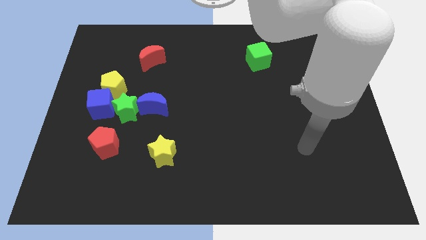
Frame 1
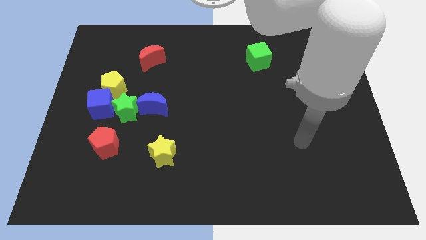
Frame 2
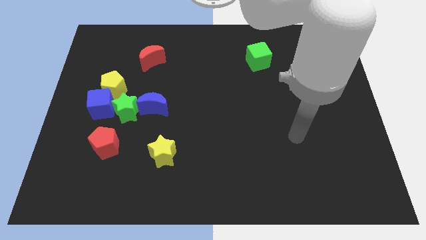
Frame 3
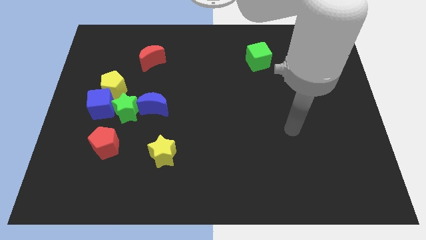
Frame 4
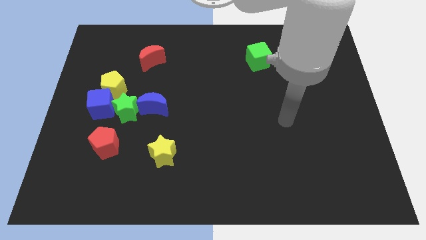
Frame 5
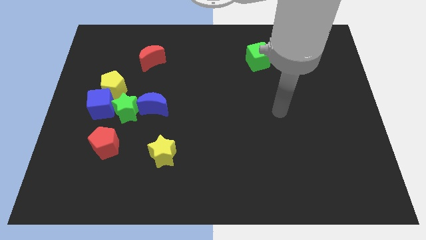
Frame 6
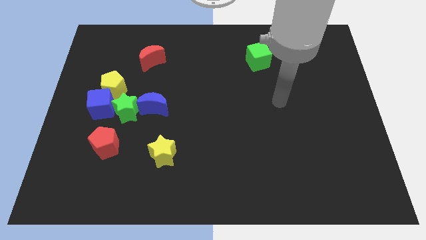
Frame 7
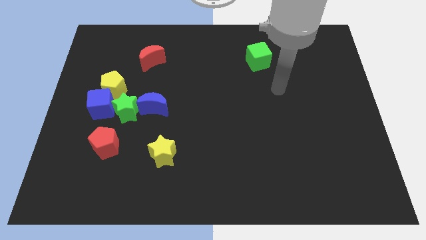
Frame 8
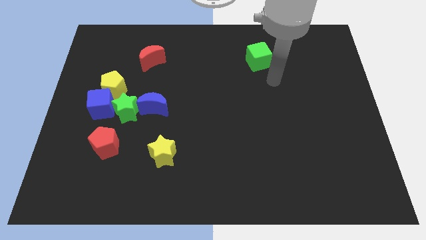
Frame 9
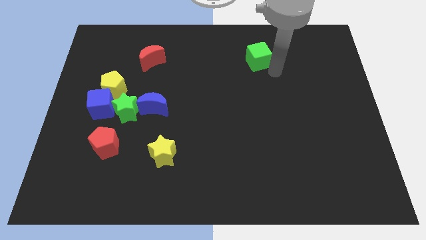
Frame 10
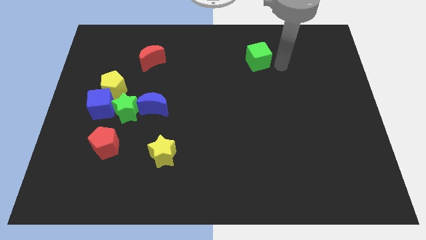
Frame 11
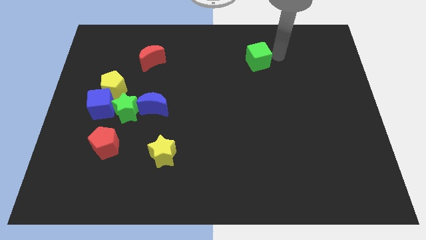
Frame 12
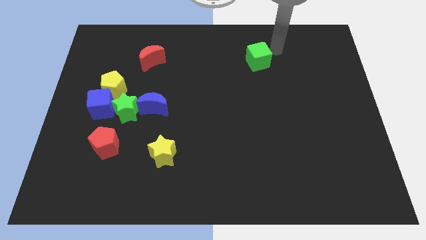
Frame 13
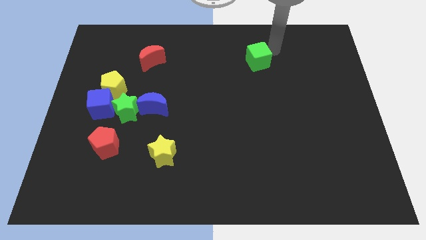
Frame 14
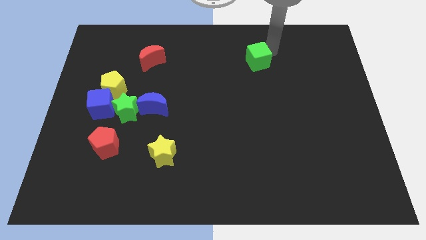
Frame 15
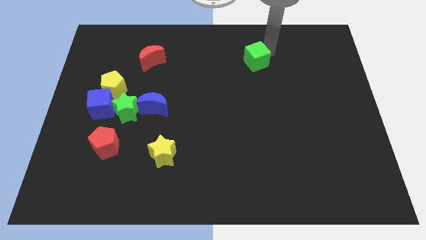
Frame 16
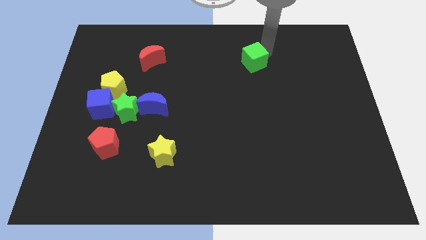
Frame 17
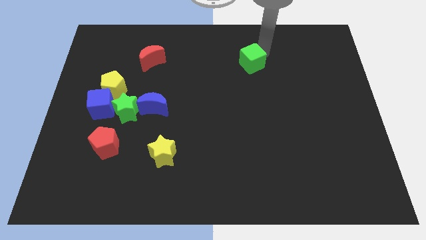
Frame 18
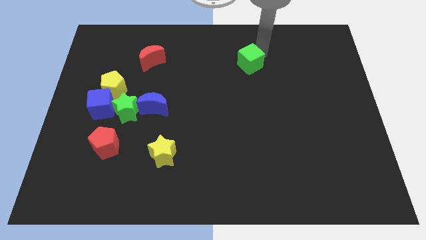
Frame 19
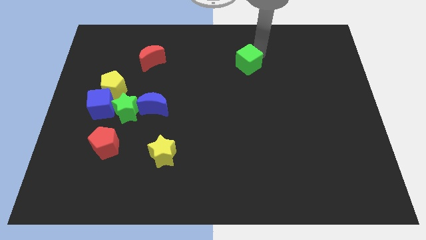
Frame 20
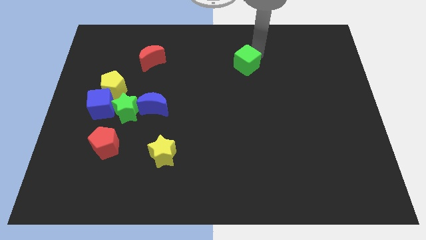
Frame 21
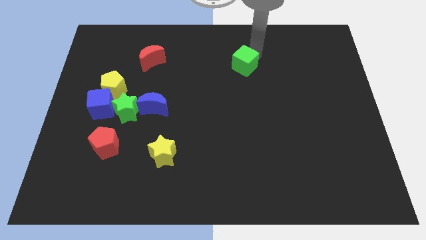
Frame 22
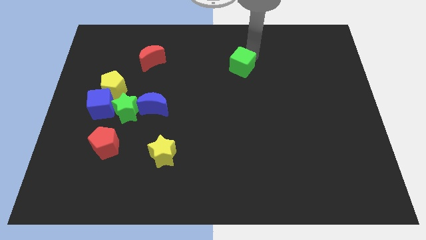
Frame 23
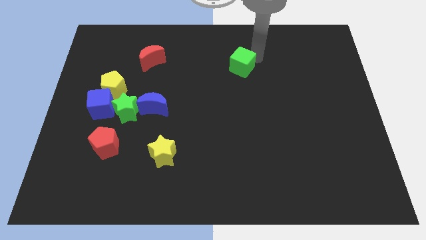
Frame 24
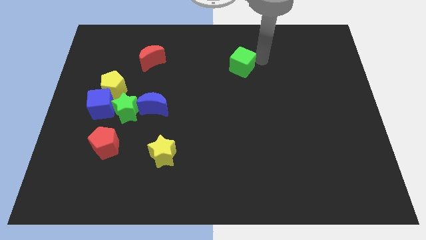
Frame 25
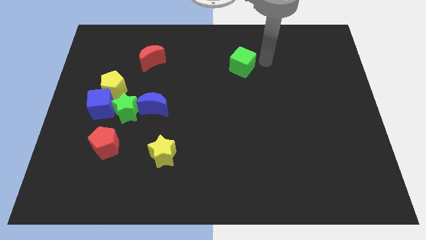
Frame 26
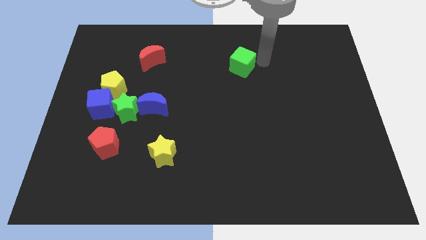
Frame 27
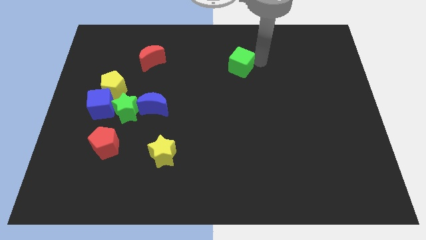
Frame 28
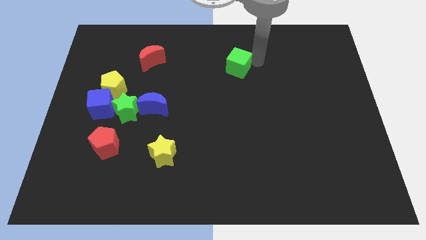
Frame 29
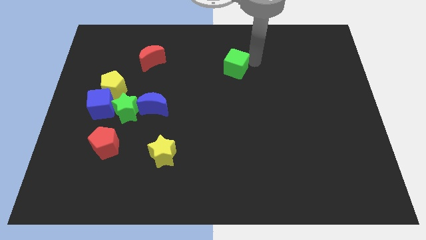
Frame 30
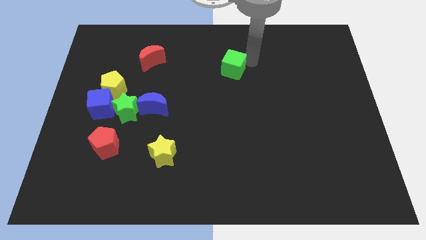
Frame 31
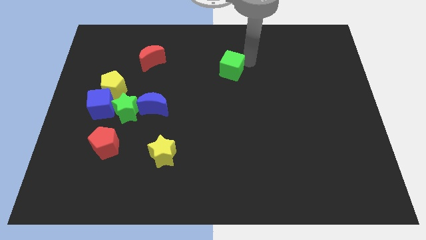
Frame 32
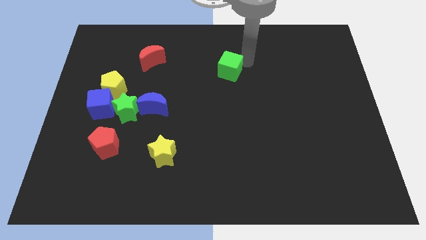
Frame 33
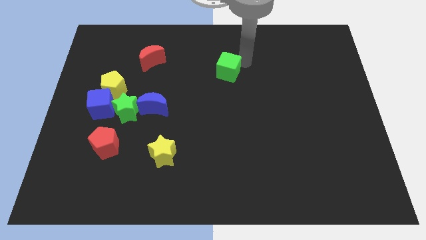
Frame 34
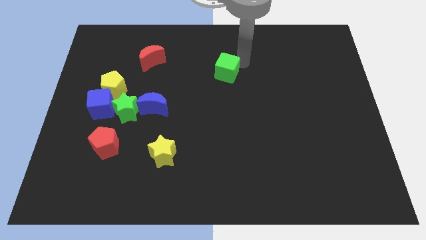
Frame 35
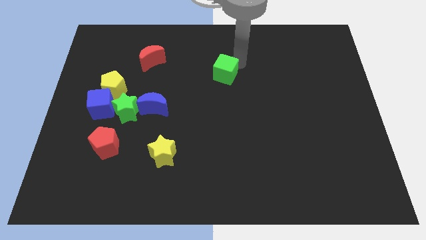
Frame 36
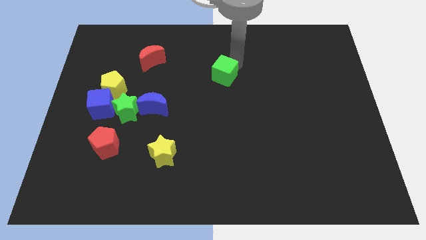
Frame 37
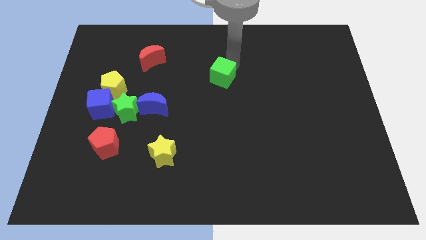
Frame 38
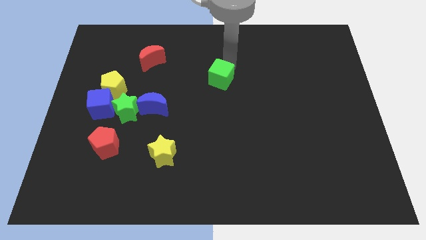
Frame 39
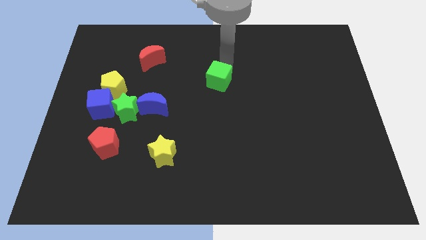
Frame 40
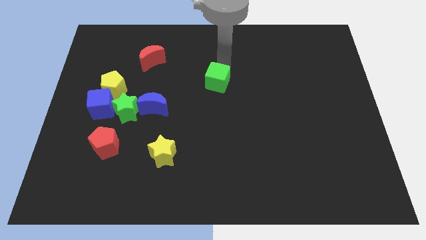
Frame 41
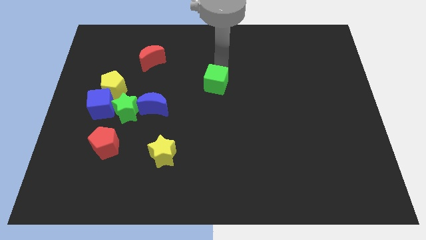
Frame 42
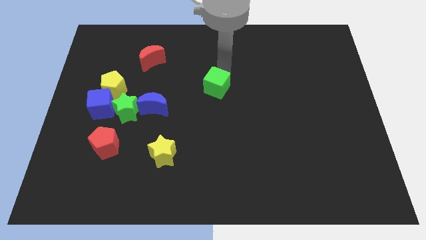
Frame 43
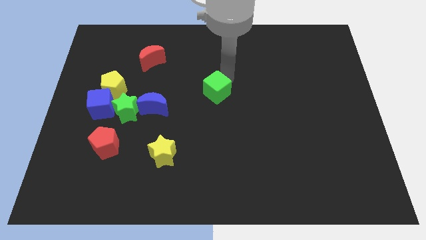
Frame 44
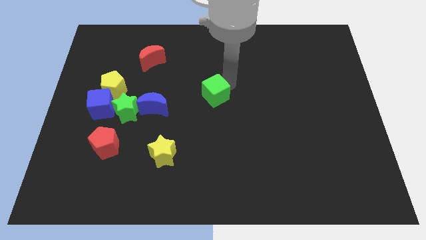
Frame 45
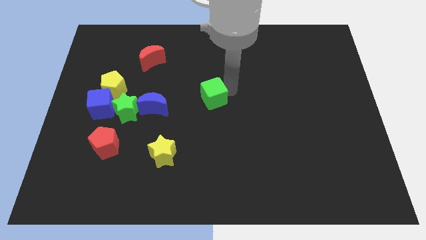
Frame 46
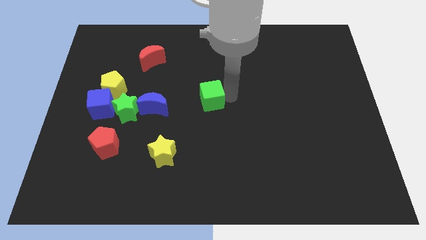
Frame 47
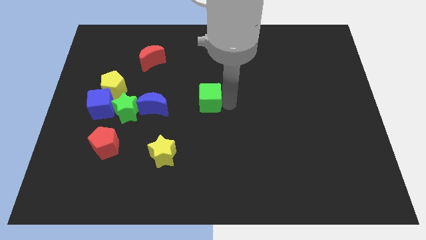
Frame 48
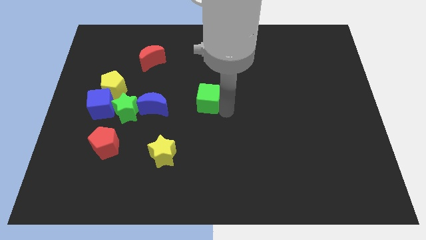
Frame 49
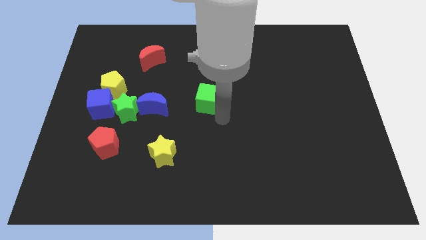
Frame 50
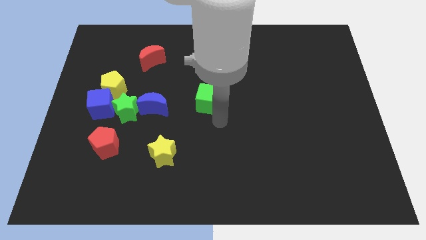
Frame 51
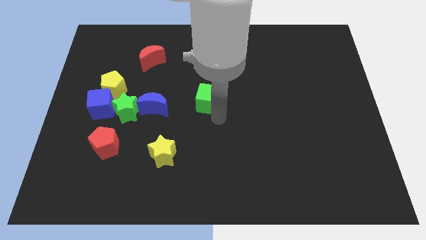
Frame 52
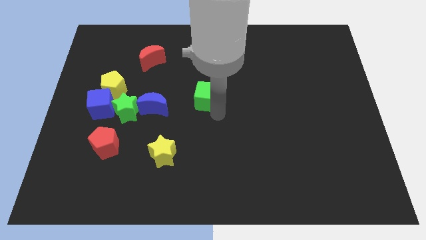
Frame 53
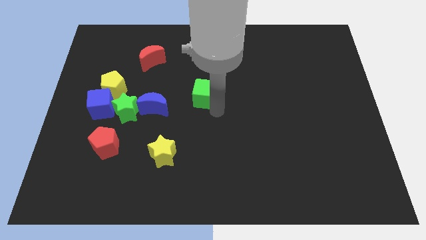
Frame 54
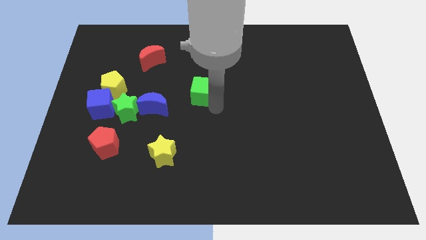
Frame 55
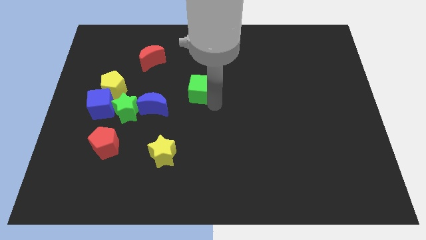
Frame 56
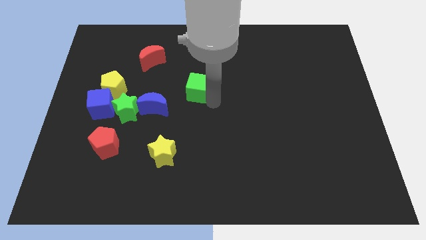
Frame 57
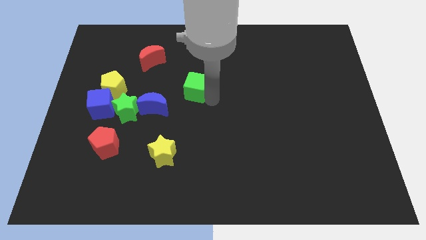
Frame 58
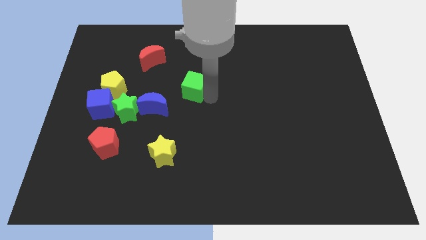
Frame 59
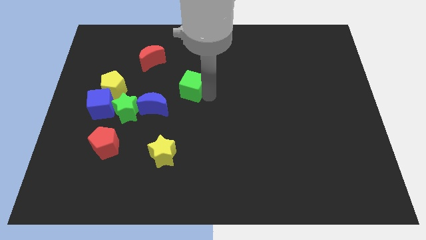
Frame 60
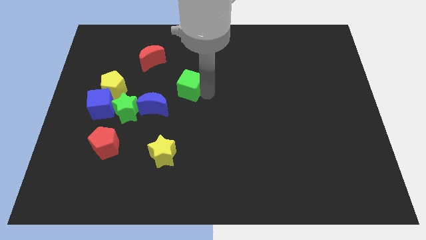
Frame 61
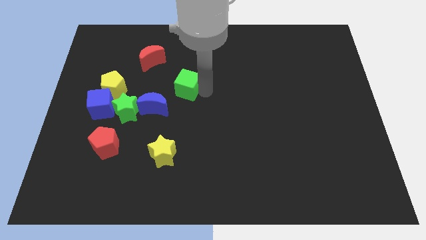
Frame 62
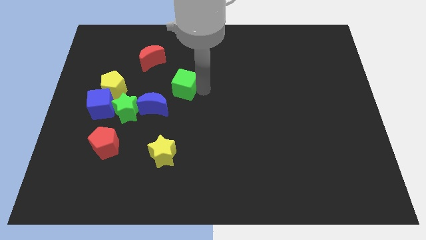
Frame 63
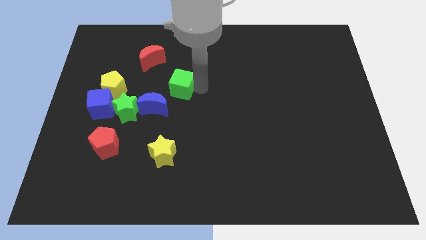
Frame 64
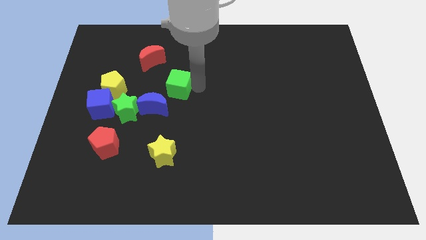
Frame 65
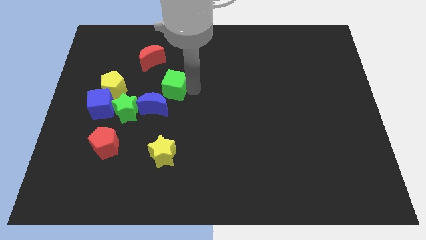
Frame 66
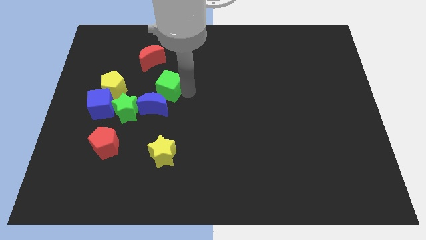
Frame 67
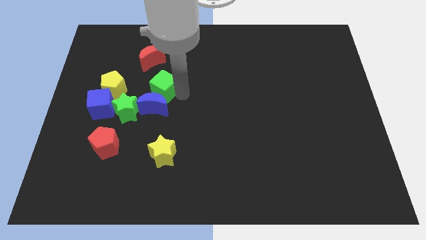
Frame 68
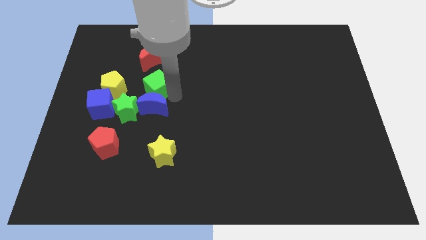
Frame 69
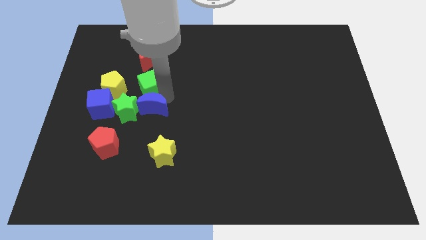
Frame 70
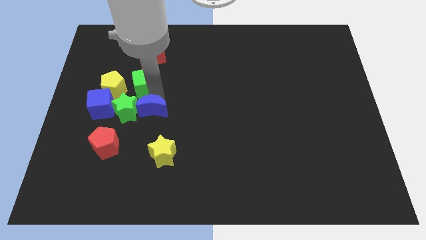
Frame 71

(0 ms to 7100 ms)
slide the green cube to the top right of the yellow pentagon
